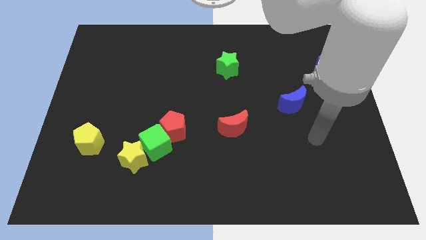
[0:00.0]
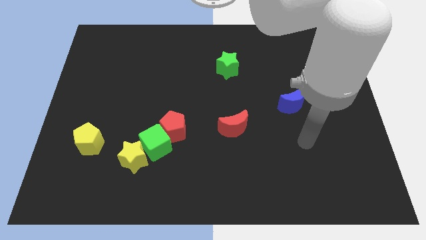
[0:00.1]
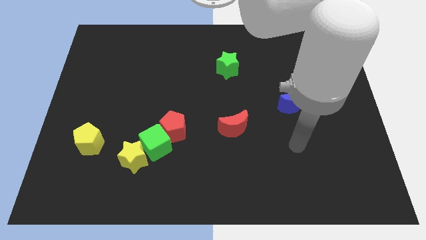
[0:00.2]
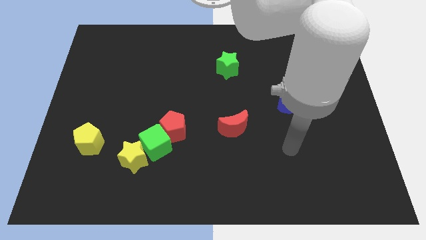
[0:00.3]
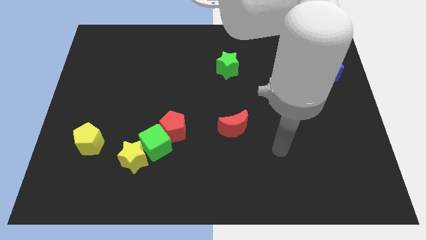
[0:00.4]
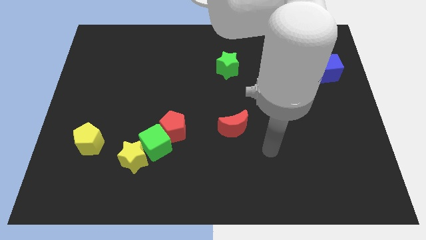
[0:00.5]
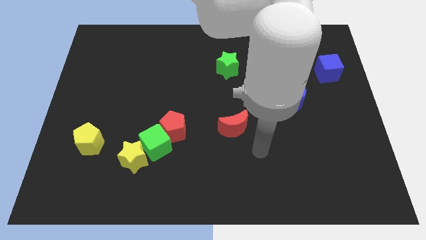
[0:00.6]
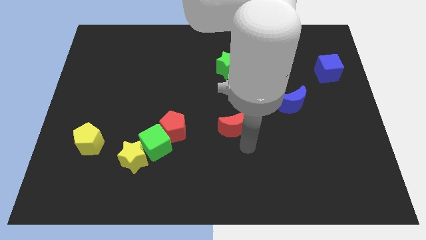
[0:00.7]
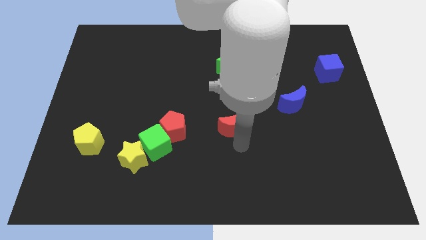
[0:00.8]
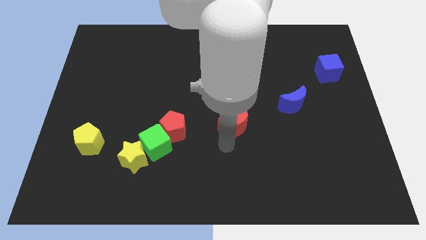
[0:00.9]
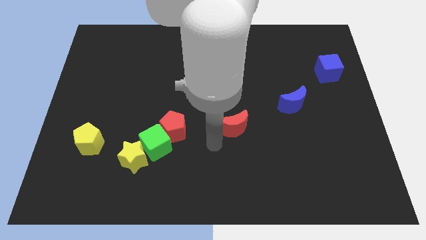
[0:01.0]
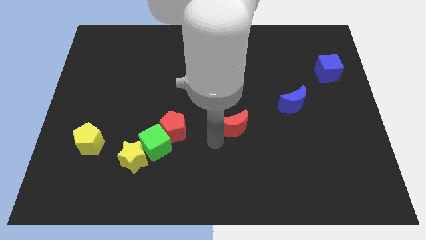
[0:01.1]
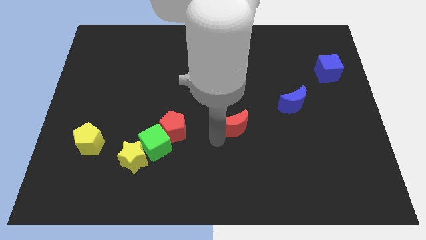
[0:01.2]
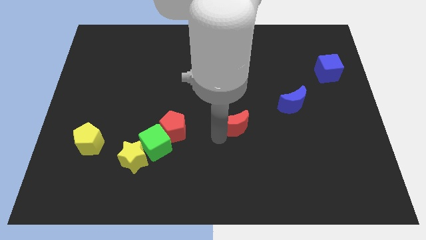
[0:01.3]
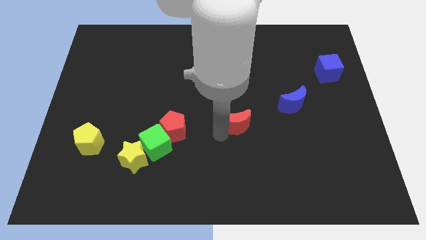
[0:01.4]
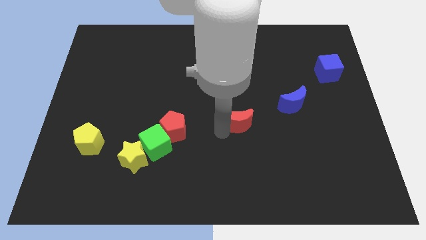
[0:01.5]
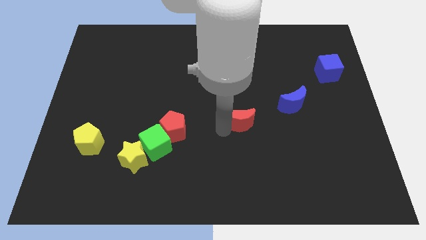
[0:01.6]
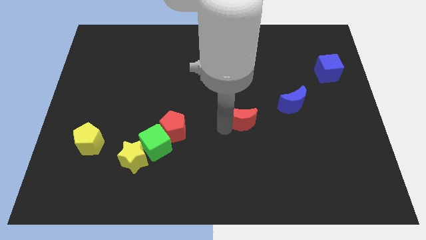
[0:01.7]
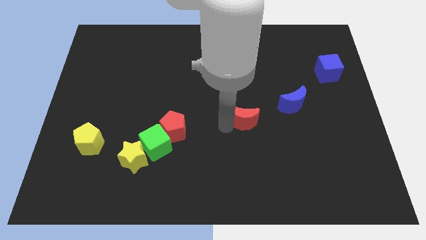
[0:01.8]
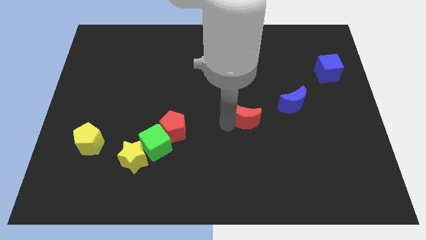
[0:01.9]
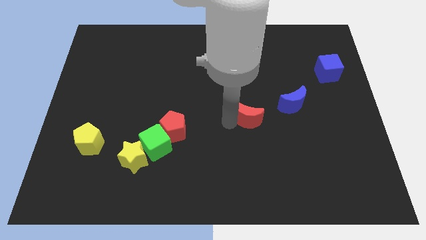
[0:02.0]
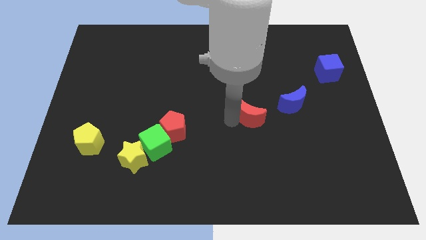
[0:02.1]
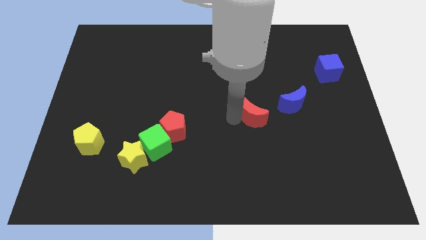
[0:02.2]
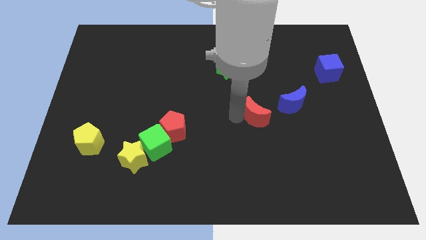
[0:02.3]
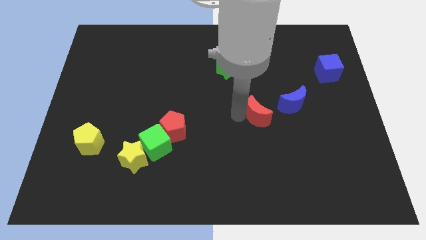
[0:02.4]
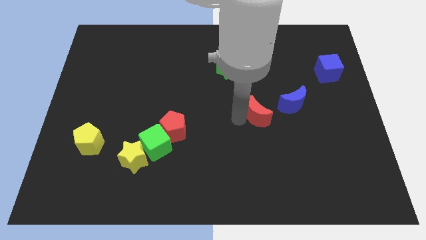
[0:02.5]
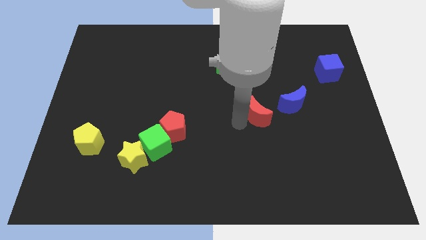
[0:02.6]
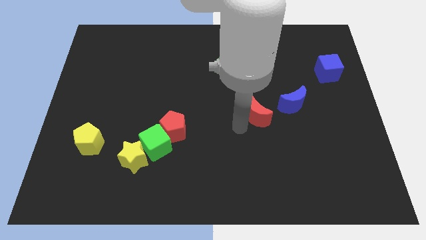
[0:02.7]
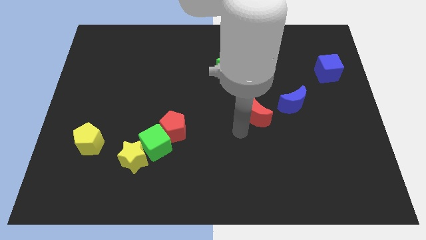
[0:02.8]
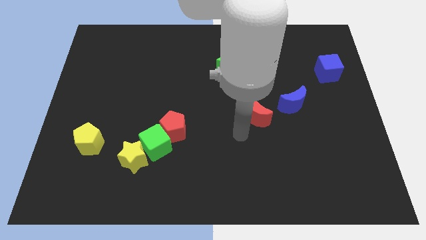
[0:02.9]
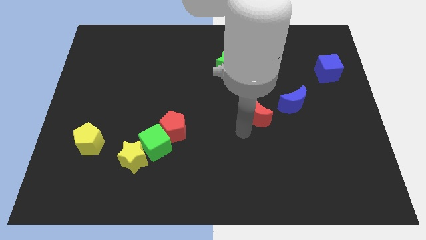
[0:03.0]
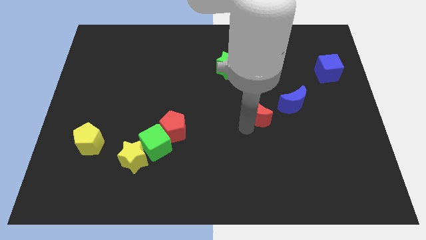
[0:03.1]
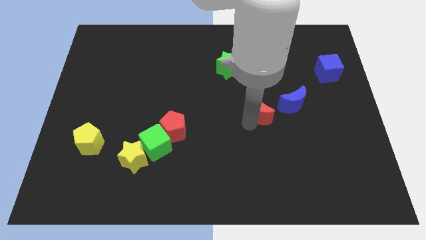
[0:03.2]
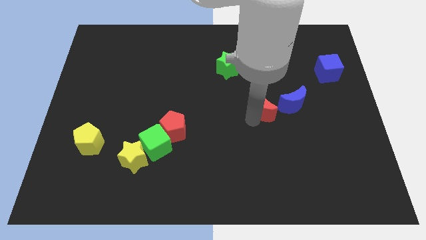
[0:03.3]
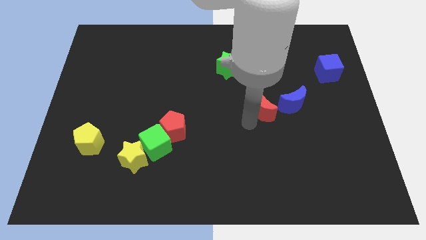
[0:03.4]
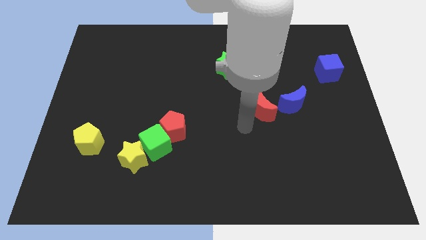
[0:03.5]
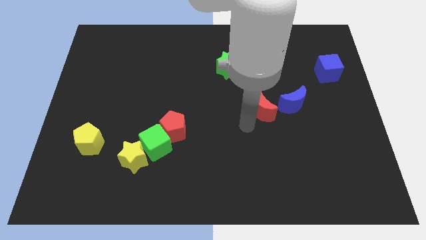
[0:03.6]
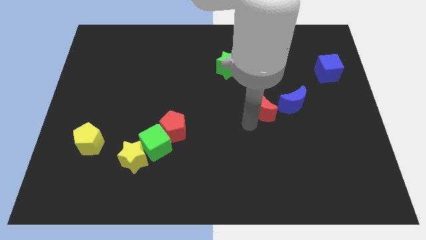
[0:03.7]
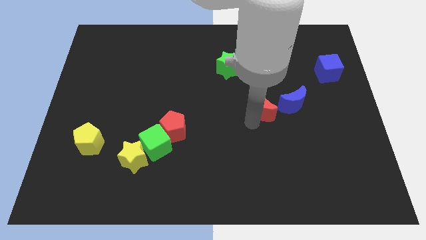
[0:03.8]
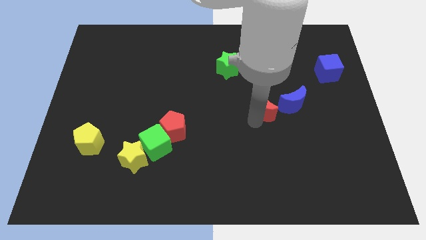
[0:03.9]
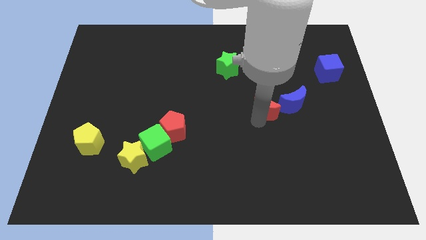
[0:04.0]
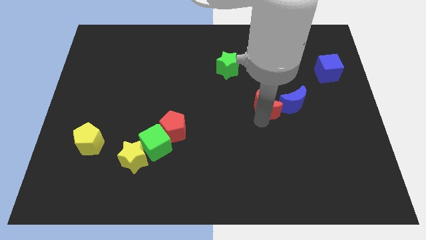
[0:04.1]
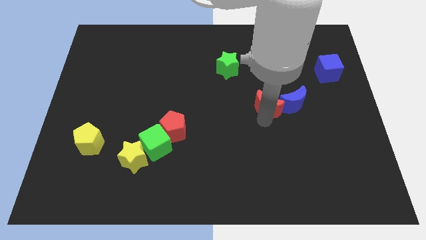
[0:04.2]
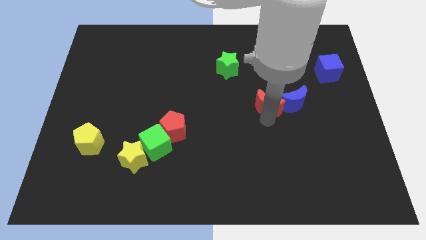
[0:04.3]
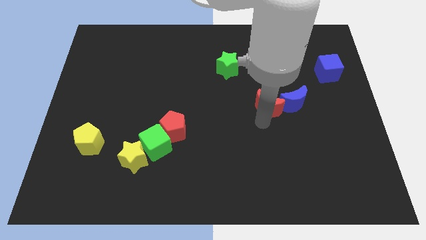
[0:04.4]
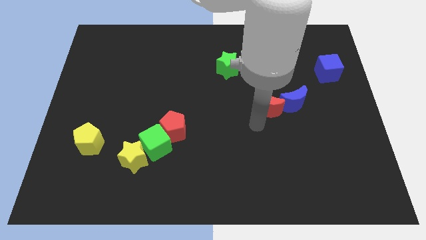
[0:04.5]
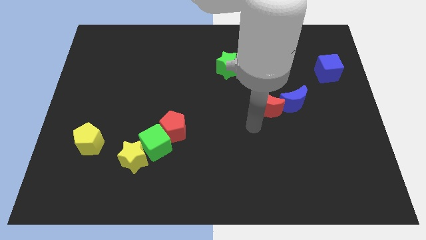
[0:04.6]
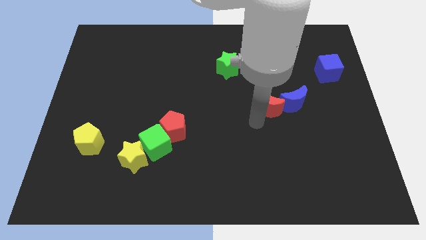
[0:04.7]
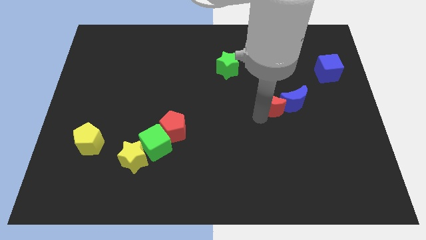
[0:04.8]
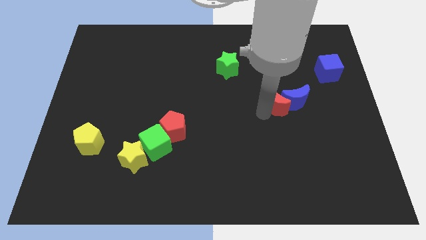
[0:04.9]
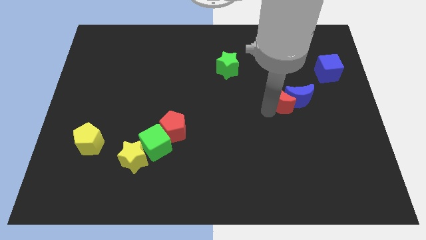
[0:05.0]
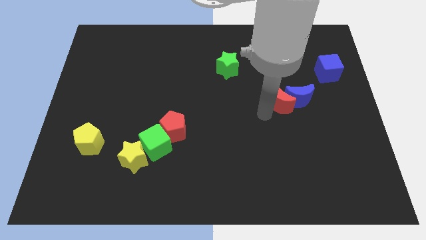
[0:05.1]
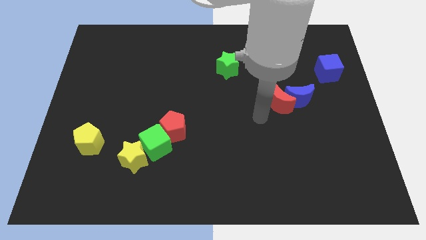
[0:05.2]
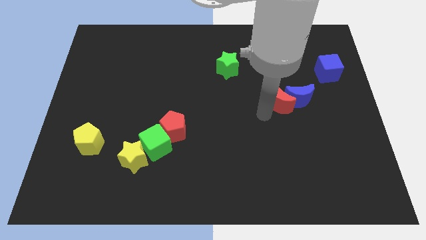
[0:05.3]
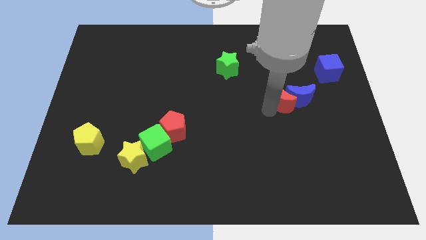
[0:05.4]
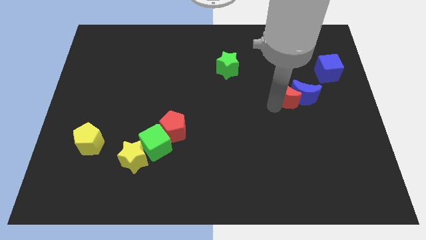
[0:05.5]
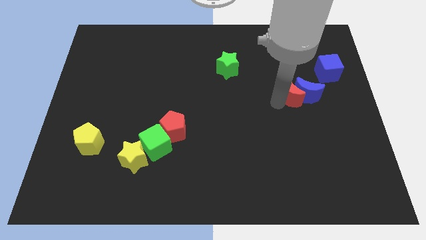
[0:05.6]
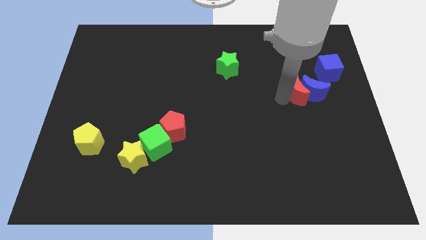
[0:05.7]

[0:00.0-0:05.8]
slide the red moon diagonally down and to the left of the blue cube

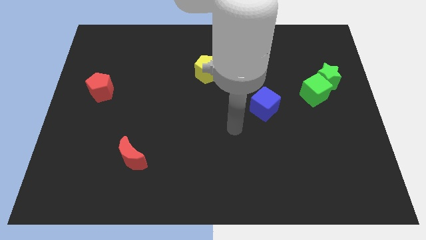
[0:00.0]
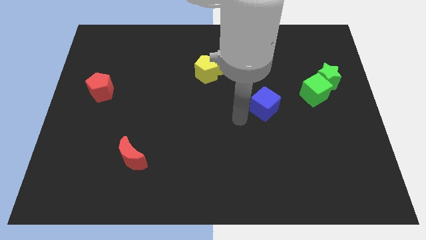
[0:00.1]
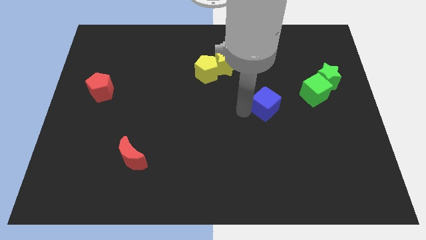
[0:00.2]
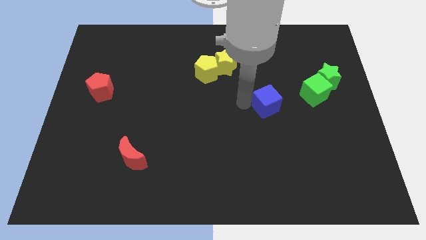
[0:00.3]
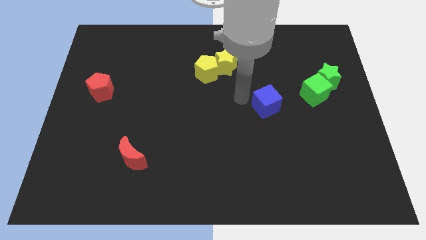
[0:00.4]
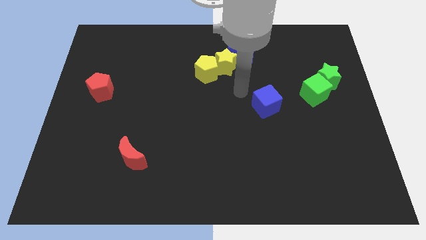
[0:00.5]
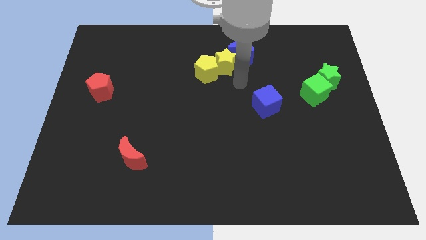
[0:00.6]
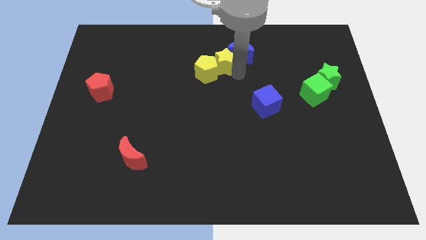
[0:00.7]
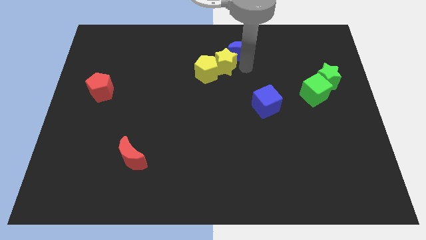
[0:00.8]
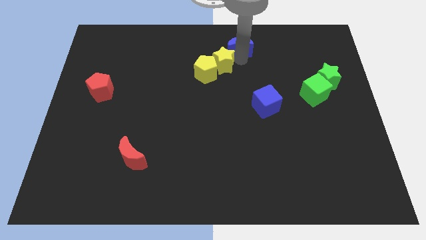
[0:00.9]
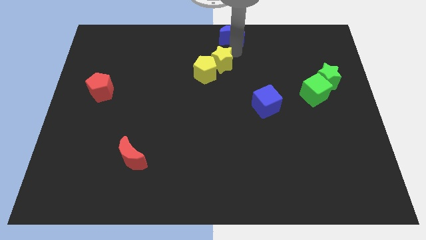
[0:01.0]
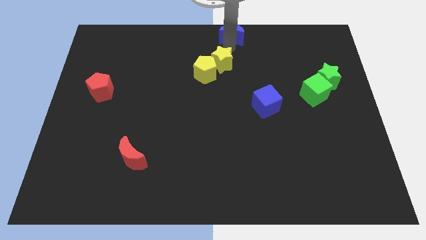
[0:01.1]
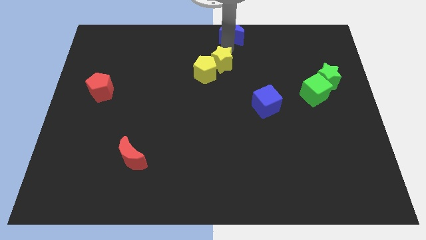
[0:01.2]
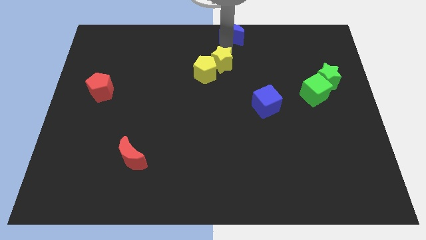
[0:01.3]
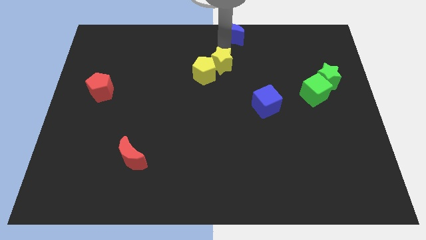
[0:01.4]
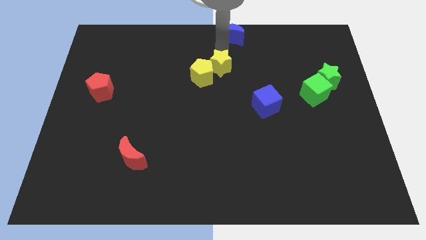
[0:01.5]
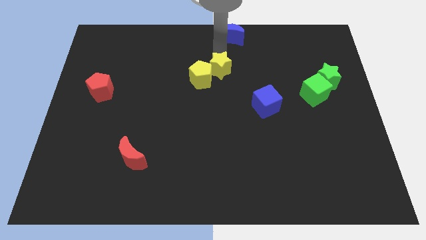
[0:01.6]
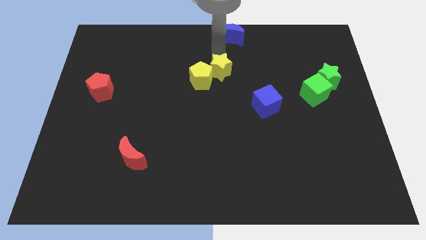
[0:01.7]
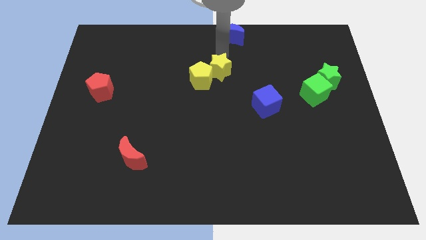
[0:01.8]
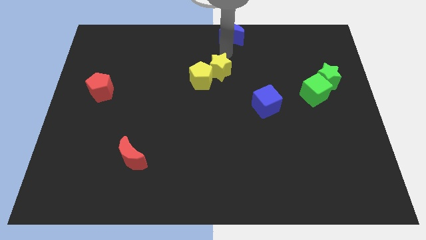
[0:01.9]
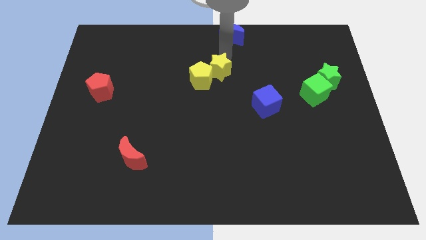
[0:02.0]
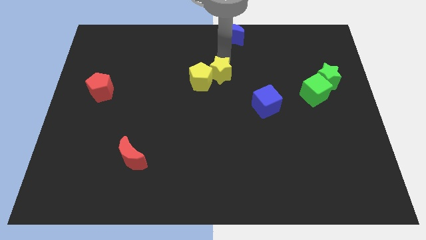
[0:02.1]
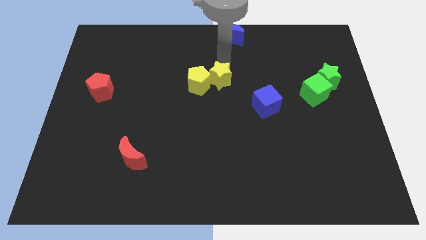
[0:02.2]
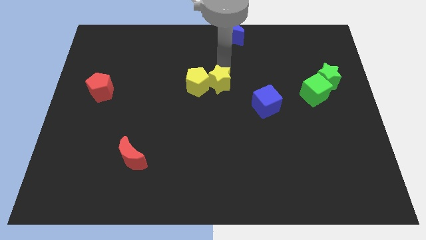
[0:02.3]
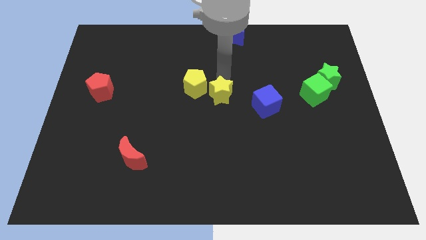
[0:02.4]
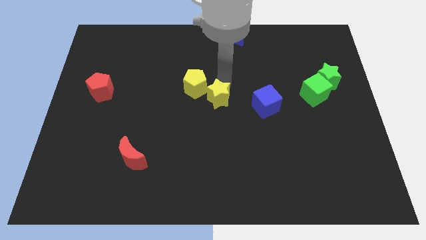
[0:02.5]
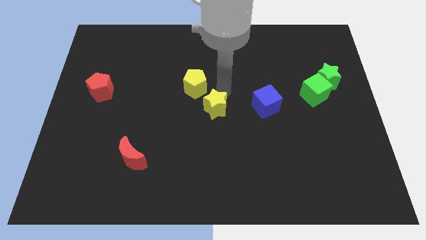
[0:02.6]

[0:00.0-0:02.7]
put the yellow star to the bottom of the yellow pentagon
